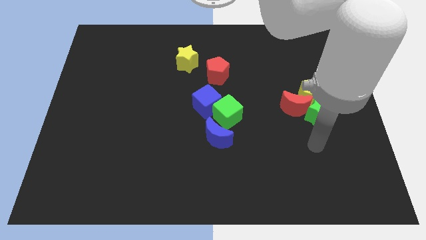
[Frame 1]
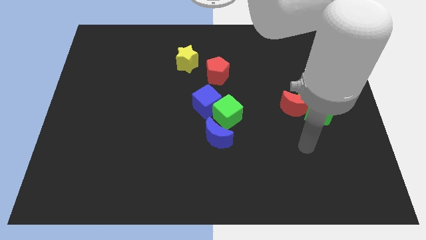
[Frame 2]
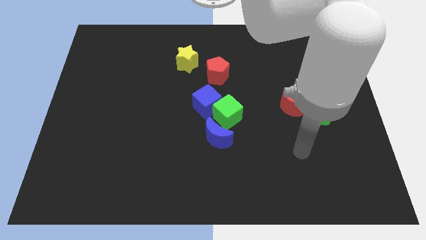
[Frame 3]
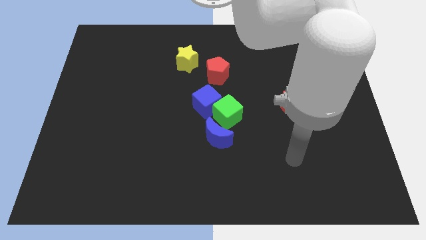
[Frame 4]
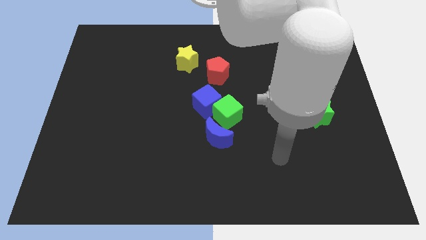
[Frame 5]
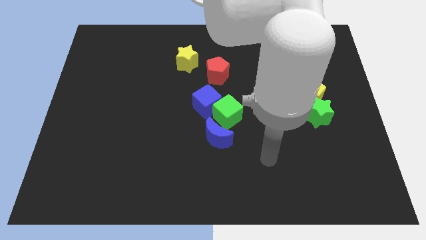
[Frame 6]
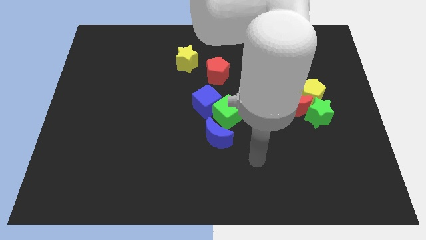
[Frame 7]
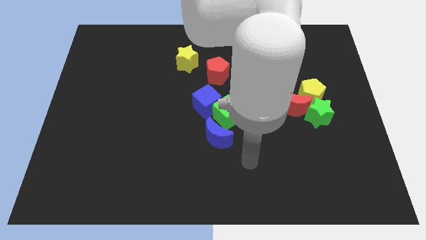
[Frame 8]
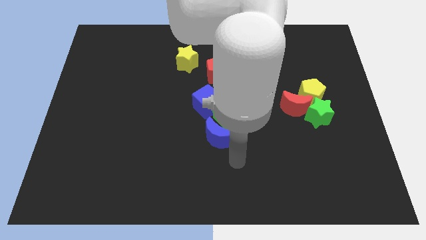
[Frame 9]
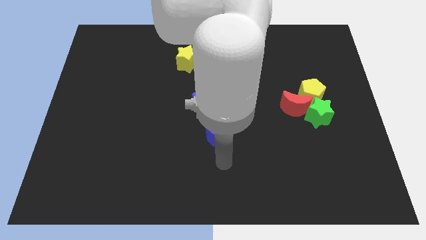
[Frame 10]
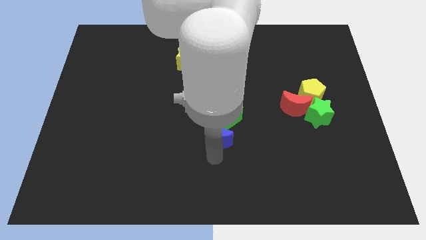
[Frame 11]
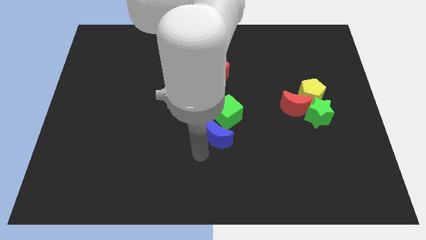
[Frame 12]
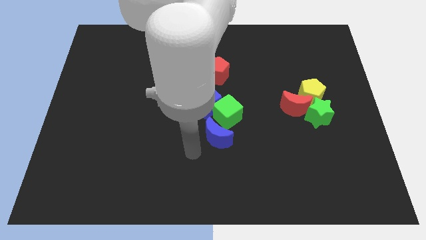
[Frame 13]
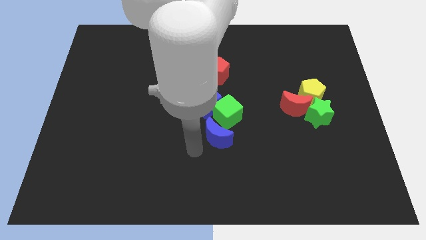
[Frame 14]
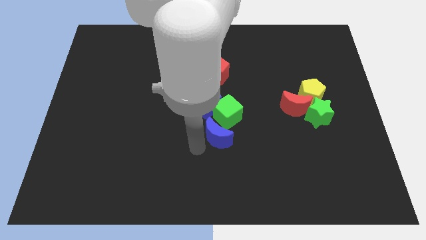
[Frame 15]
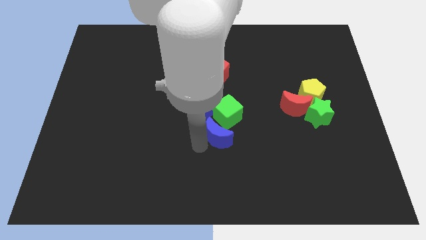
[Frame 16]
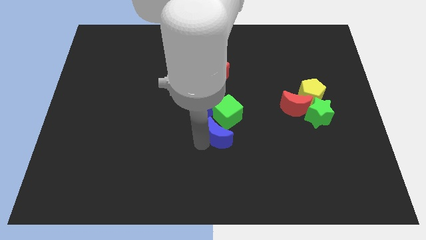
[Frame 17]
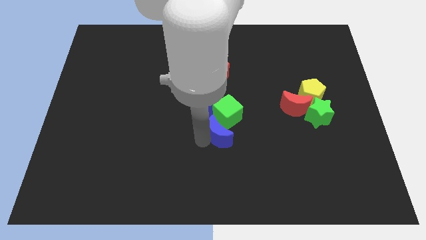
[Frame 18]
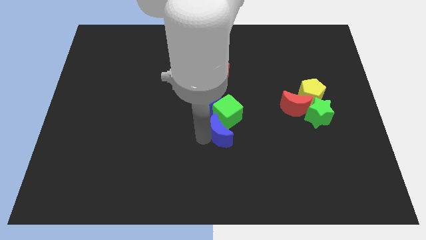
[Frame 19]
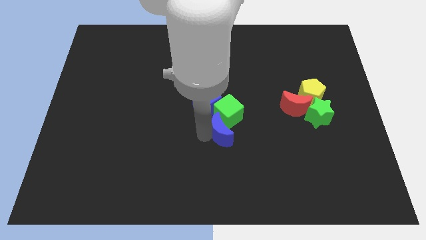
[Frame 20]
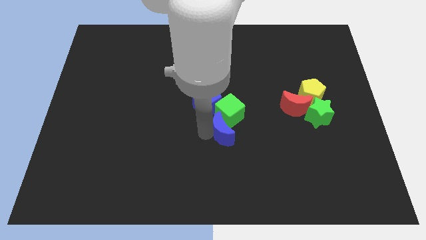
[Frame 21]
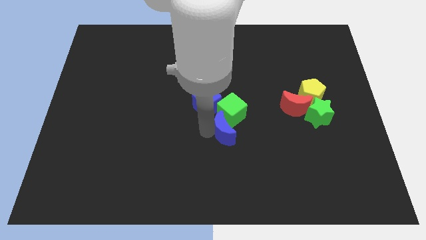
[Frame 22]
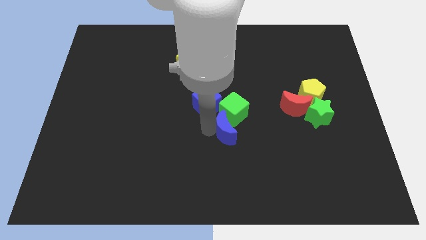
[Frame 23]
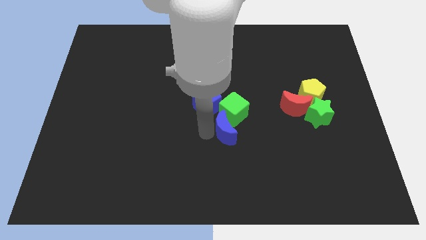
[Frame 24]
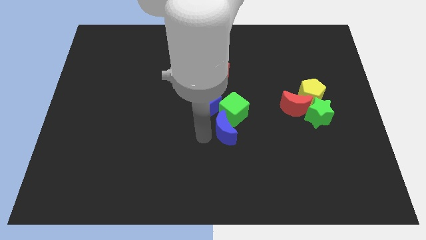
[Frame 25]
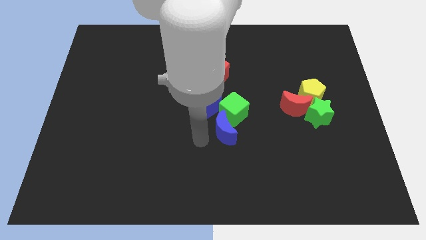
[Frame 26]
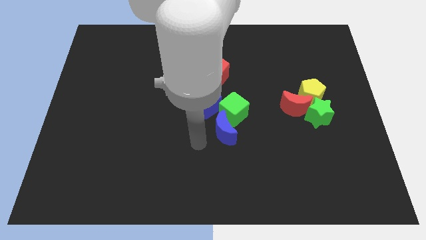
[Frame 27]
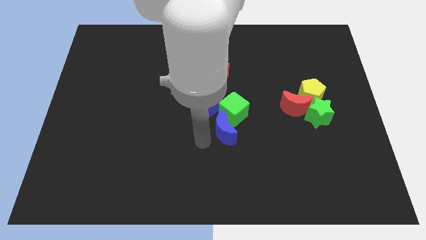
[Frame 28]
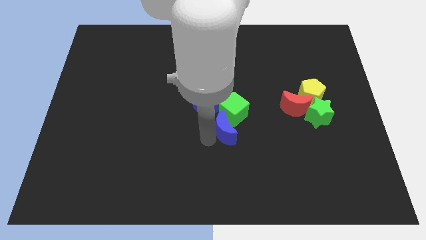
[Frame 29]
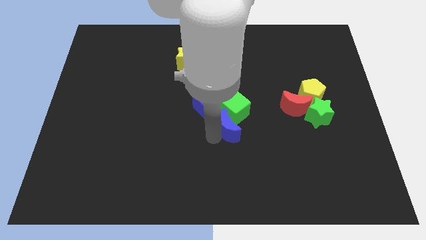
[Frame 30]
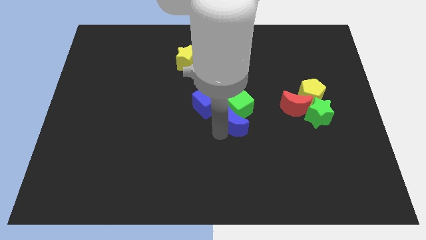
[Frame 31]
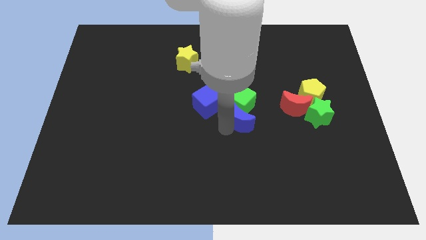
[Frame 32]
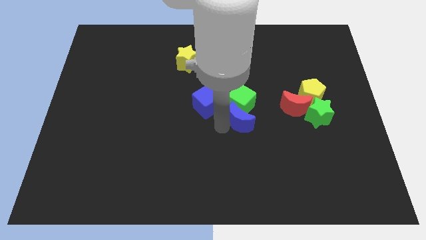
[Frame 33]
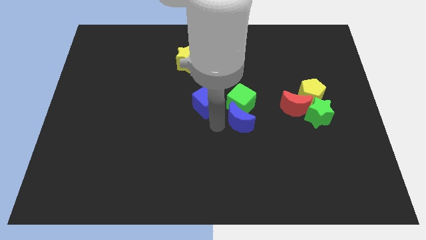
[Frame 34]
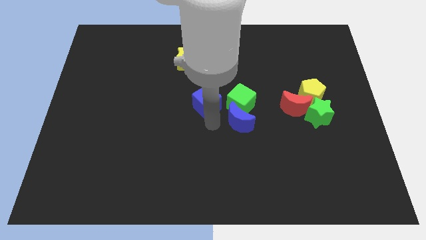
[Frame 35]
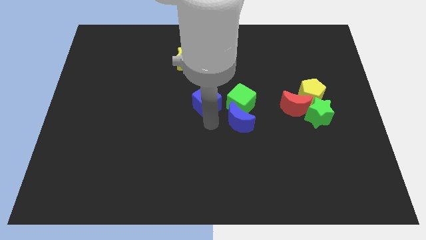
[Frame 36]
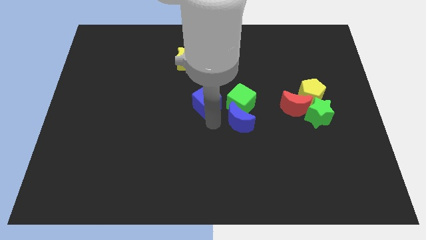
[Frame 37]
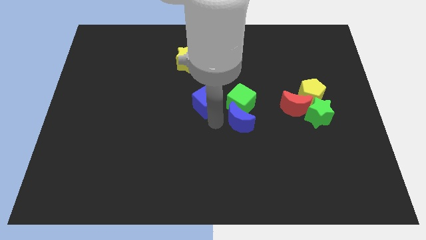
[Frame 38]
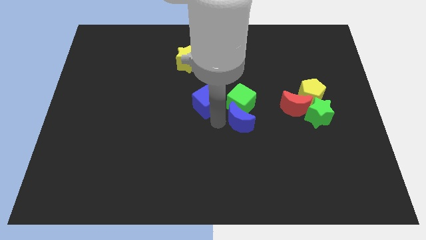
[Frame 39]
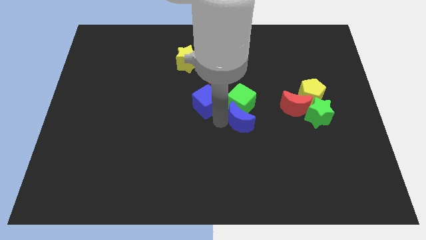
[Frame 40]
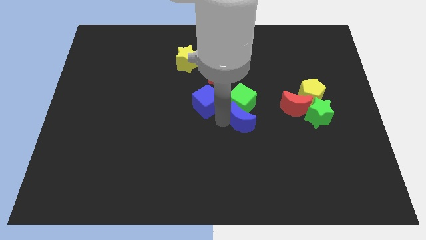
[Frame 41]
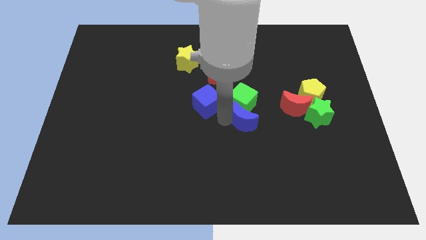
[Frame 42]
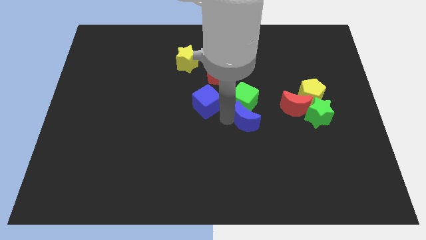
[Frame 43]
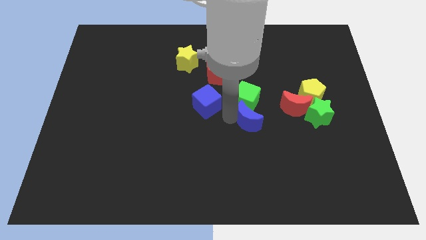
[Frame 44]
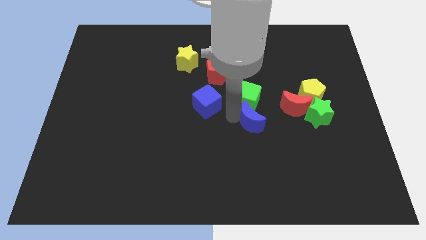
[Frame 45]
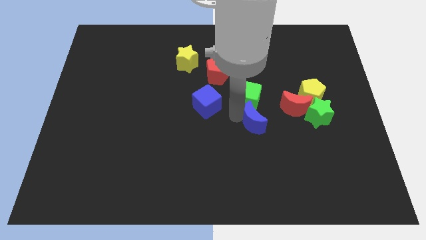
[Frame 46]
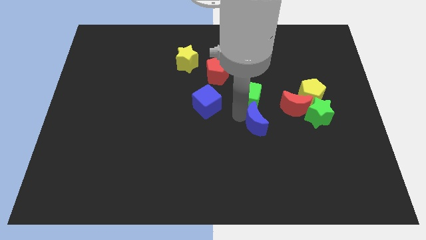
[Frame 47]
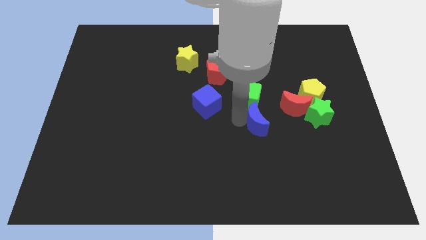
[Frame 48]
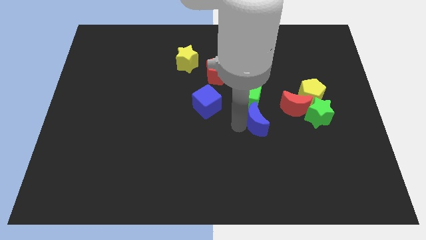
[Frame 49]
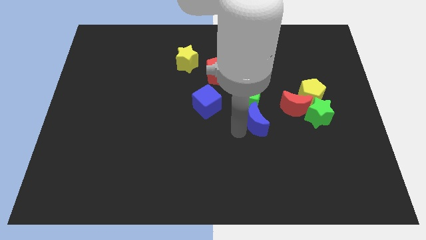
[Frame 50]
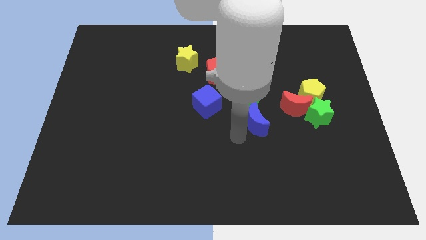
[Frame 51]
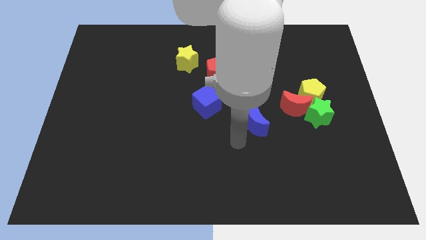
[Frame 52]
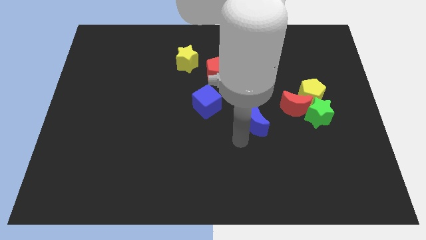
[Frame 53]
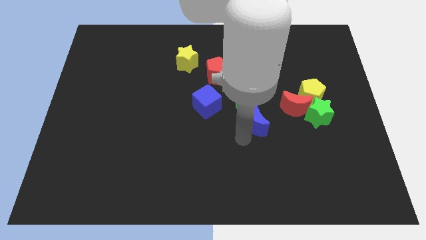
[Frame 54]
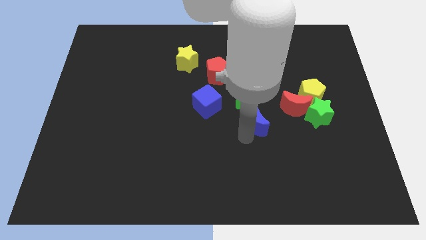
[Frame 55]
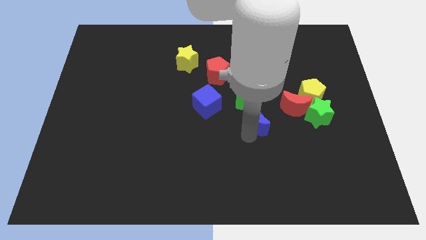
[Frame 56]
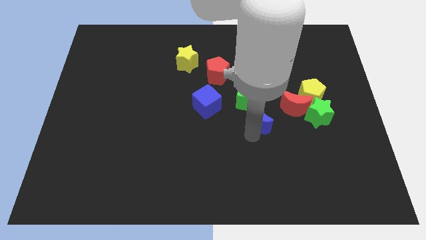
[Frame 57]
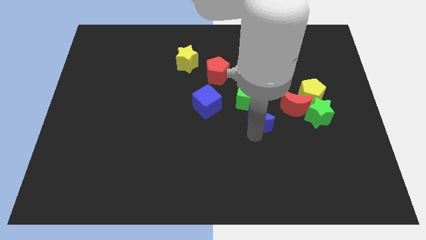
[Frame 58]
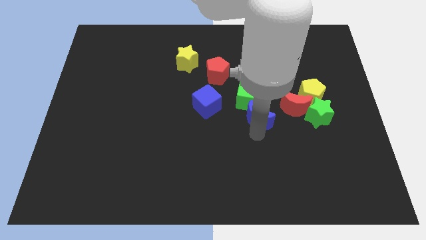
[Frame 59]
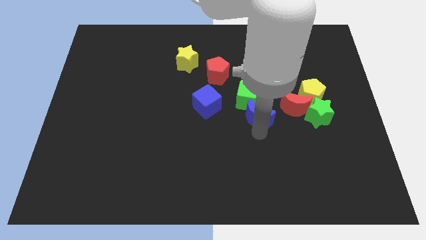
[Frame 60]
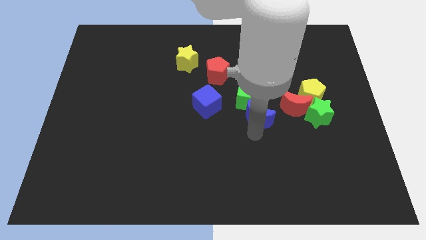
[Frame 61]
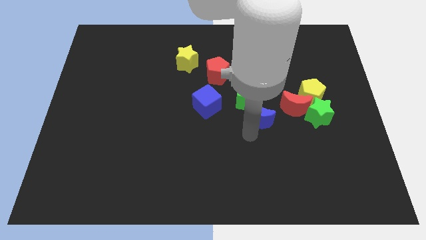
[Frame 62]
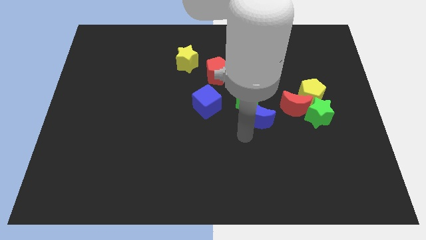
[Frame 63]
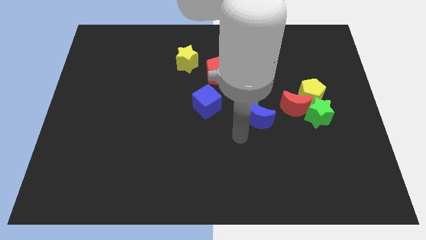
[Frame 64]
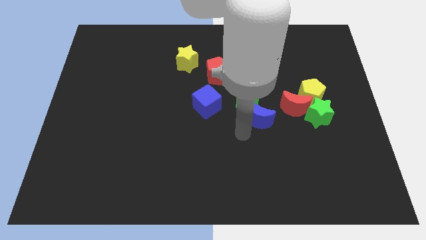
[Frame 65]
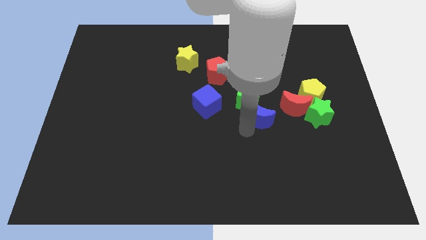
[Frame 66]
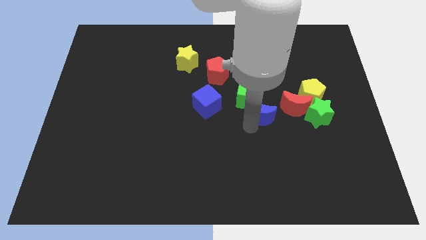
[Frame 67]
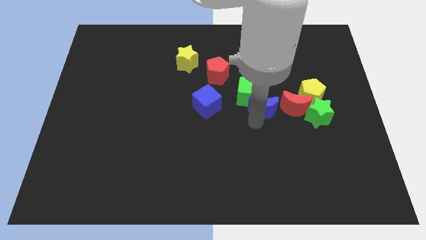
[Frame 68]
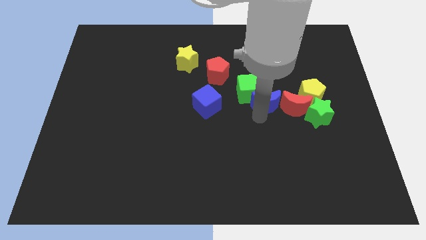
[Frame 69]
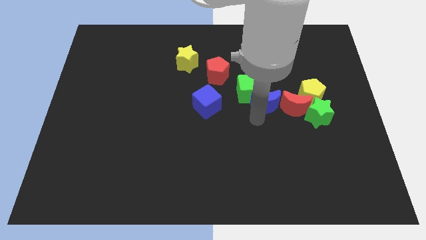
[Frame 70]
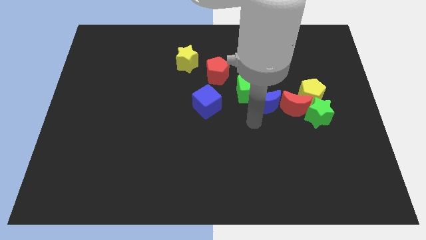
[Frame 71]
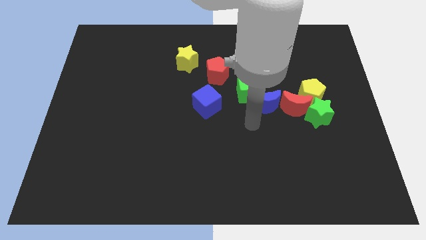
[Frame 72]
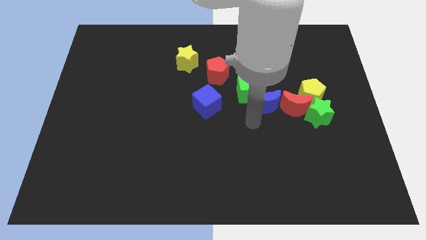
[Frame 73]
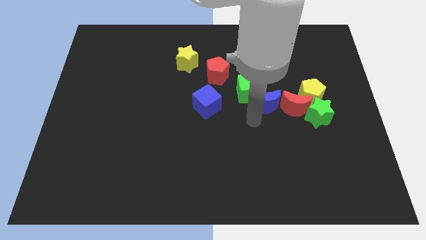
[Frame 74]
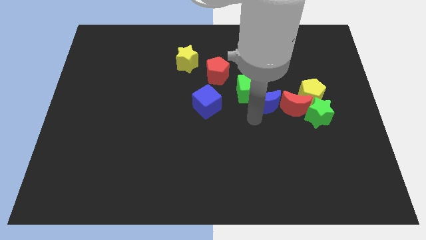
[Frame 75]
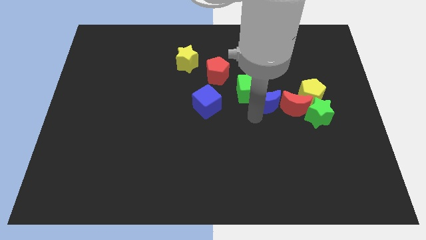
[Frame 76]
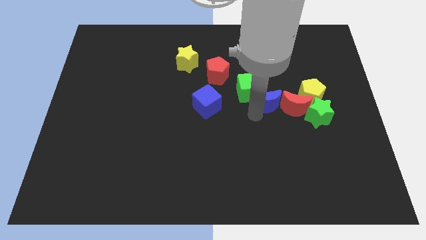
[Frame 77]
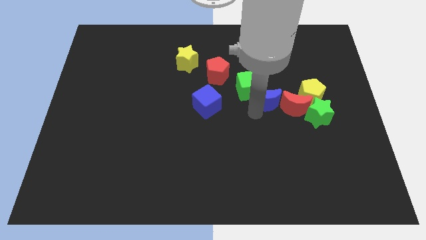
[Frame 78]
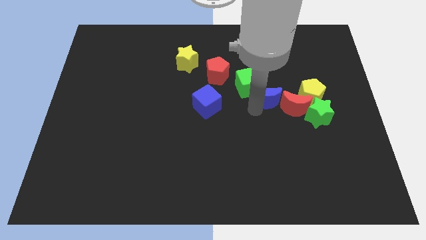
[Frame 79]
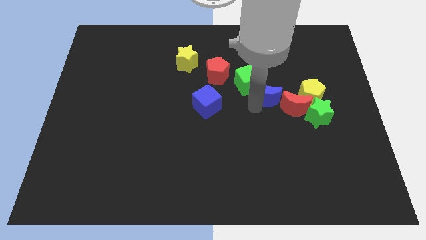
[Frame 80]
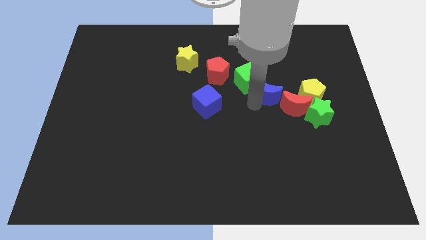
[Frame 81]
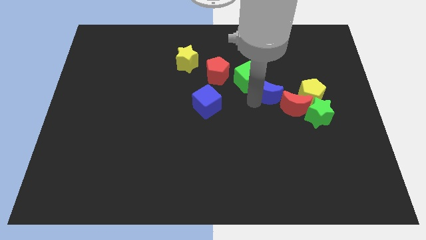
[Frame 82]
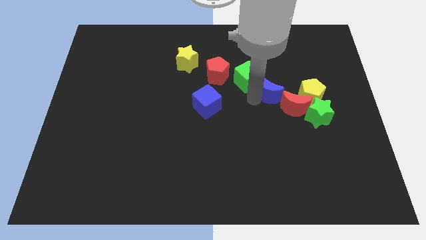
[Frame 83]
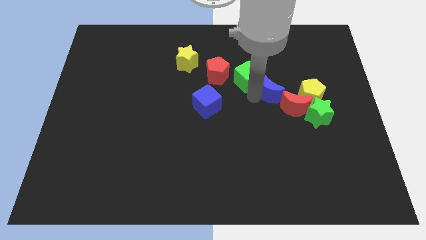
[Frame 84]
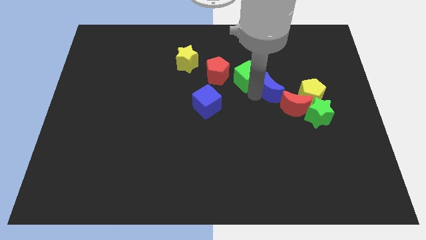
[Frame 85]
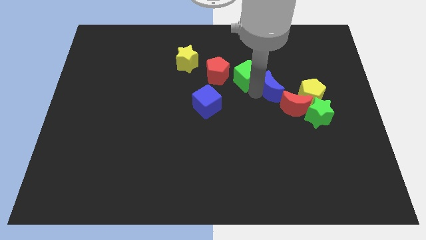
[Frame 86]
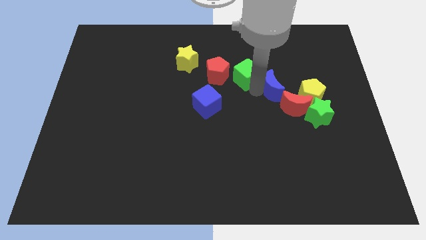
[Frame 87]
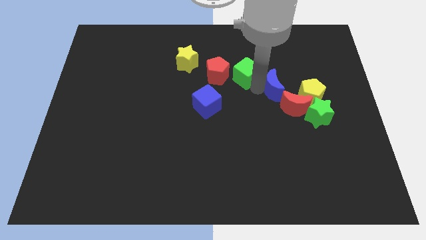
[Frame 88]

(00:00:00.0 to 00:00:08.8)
push the blue moon up and to the right diagonally
